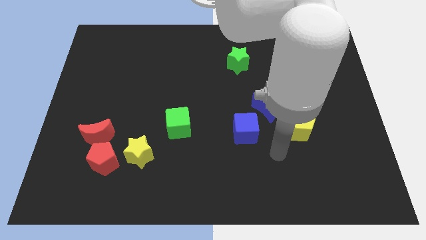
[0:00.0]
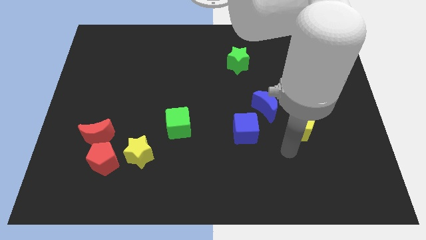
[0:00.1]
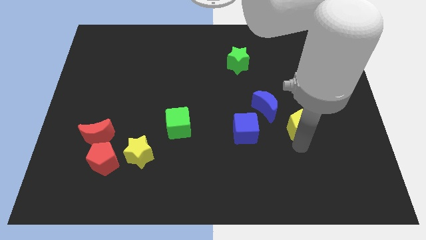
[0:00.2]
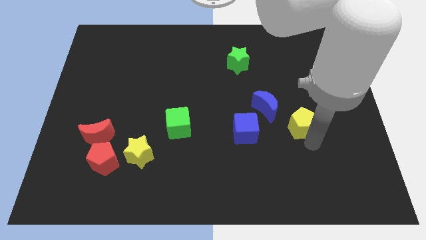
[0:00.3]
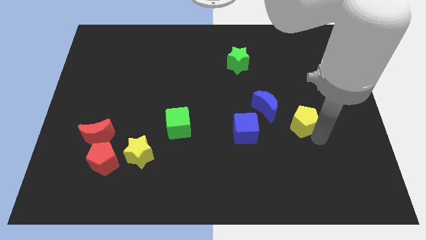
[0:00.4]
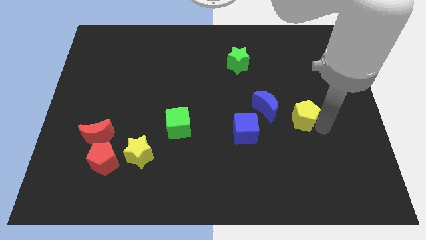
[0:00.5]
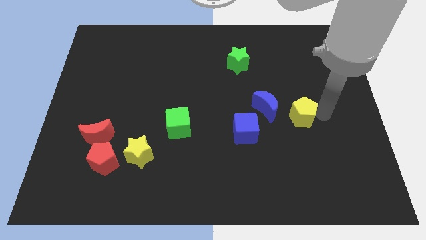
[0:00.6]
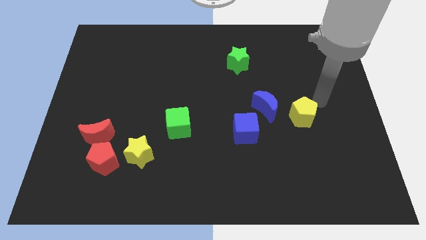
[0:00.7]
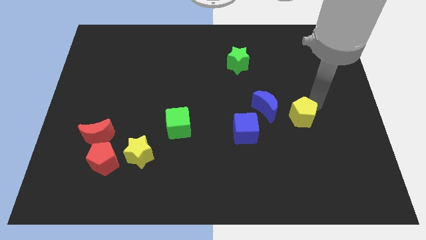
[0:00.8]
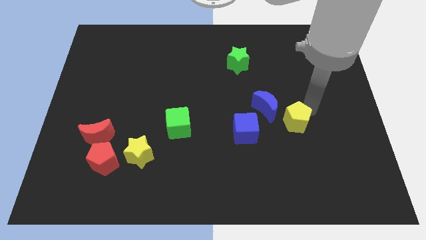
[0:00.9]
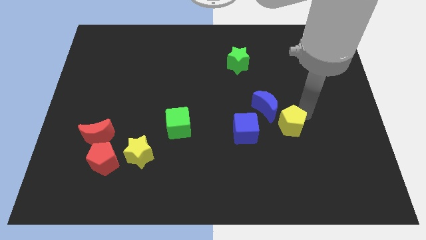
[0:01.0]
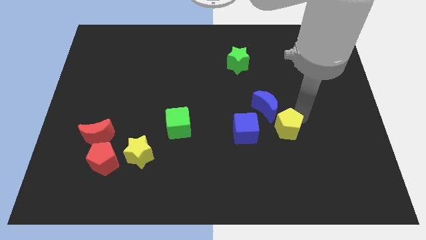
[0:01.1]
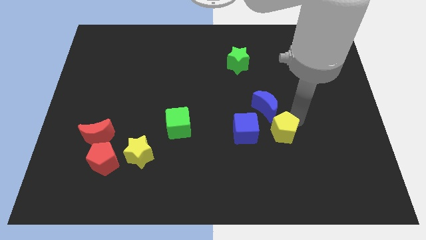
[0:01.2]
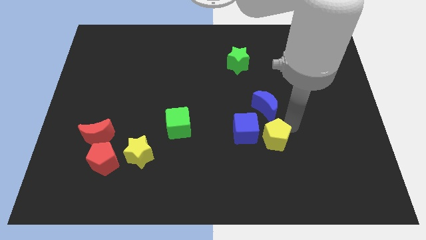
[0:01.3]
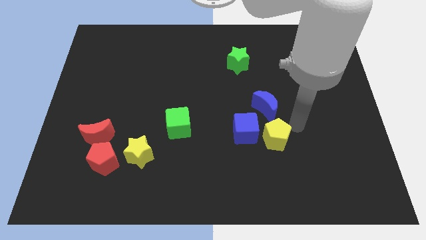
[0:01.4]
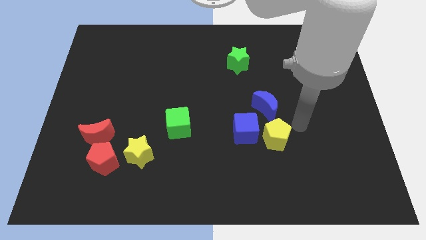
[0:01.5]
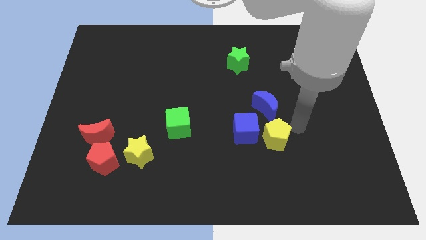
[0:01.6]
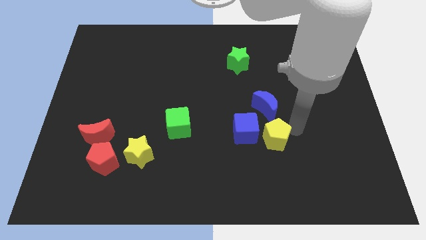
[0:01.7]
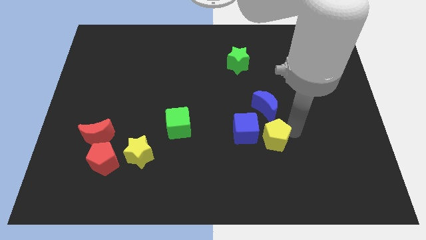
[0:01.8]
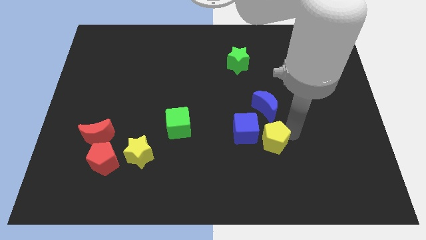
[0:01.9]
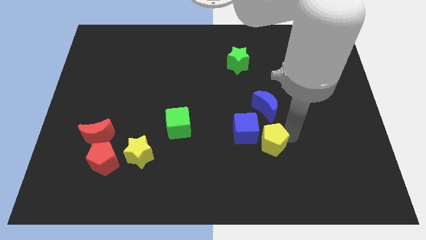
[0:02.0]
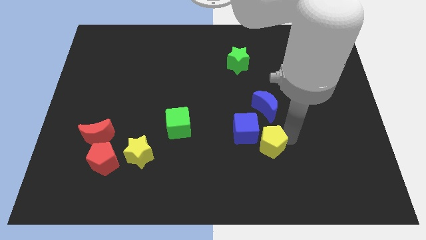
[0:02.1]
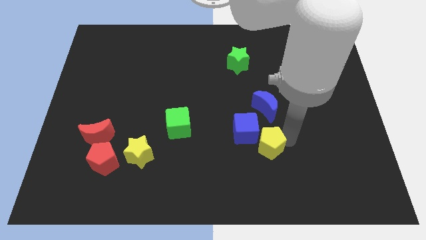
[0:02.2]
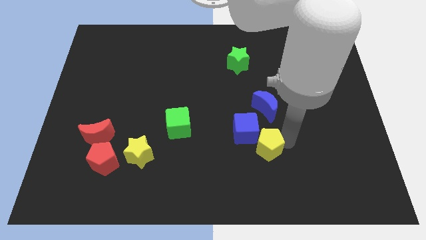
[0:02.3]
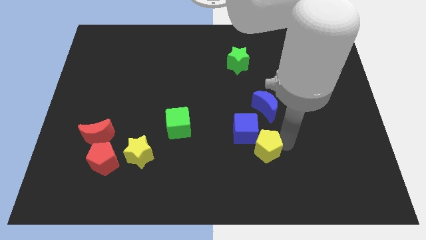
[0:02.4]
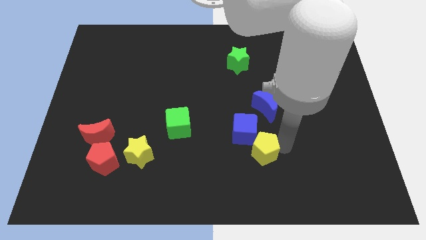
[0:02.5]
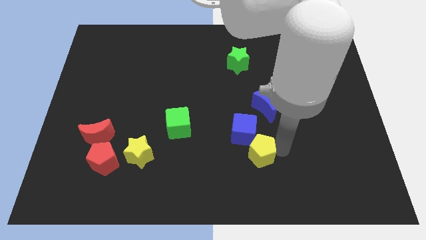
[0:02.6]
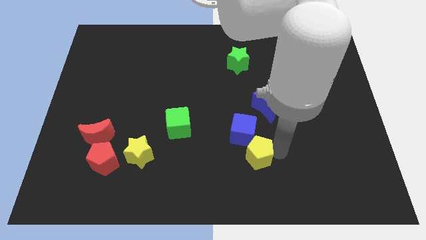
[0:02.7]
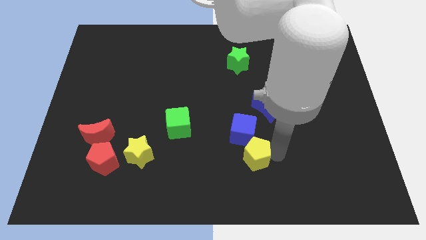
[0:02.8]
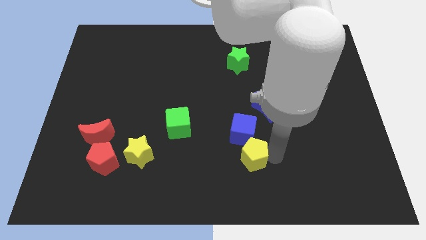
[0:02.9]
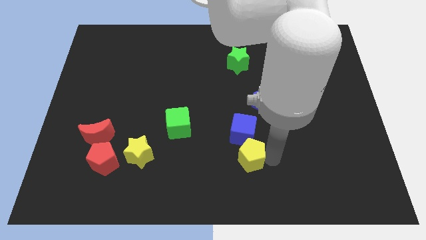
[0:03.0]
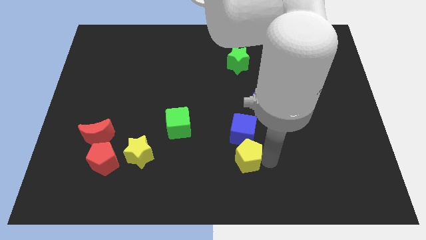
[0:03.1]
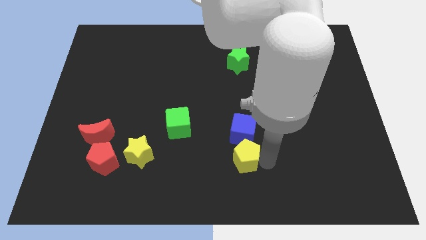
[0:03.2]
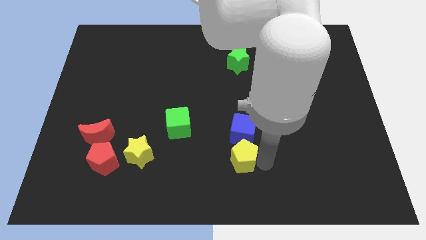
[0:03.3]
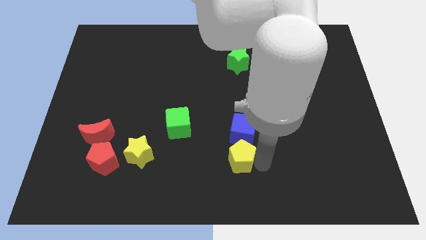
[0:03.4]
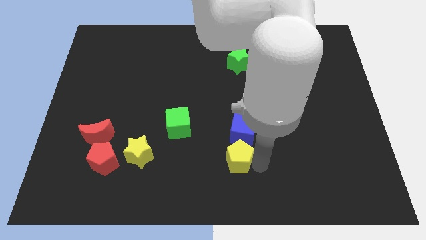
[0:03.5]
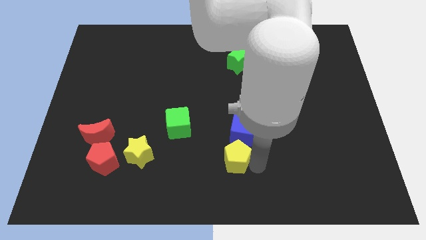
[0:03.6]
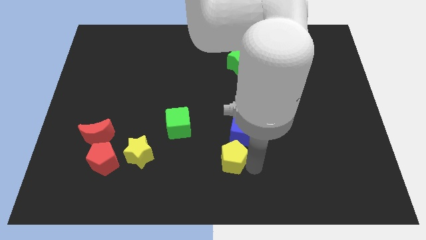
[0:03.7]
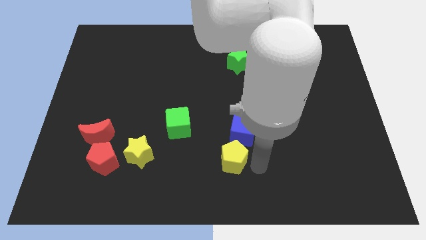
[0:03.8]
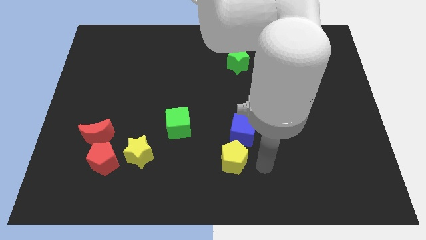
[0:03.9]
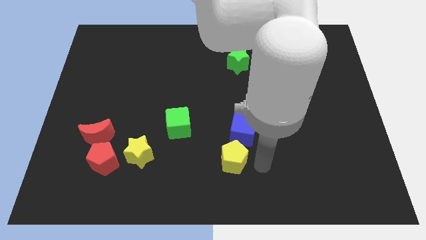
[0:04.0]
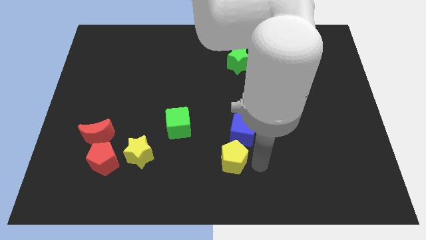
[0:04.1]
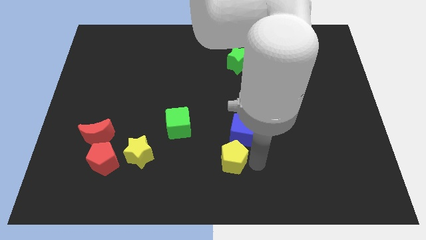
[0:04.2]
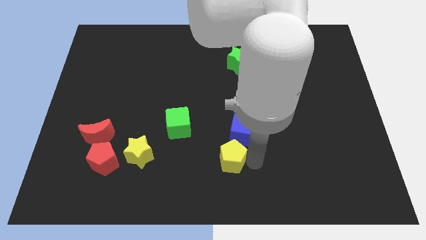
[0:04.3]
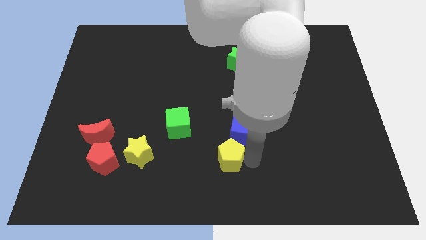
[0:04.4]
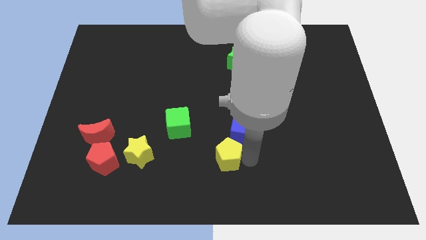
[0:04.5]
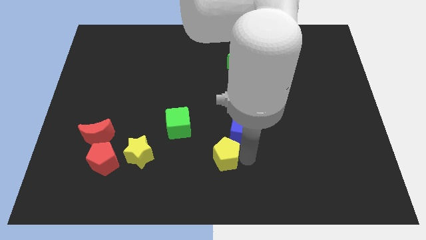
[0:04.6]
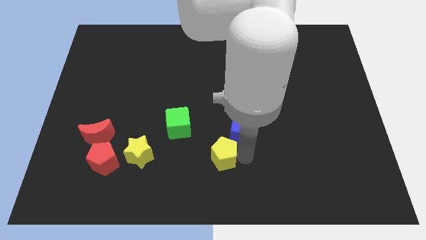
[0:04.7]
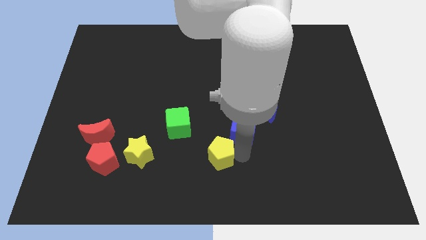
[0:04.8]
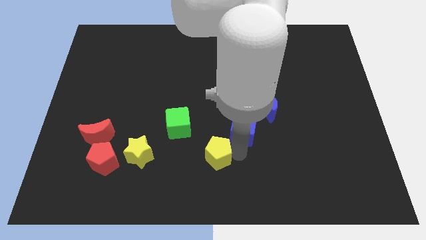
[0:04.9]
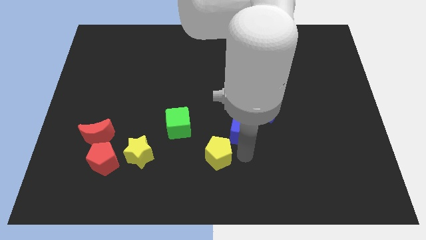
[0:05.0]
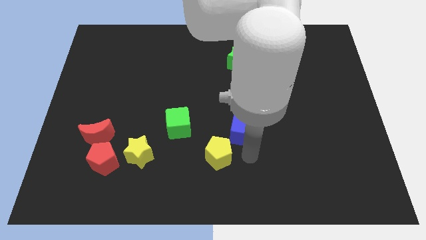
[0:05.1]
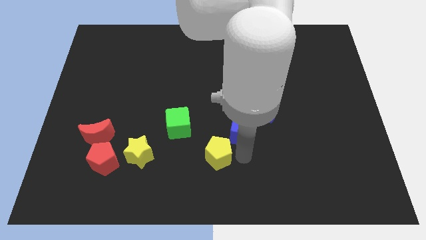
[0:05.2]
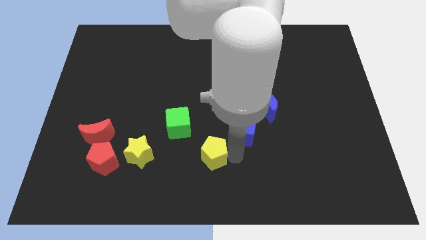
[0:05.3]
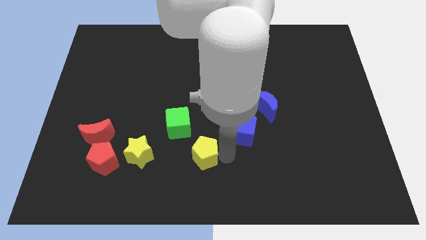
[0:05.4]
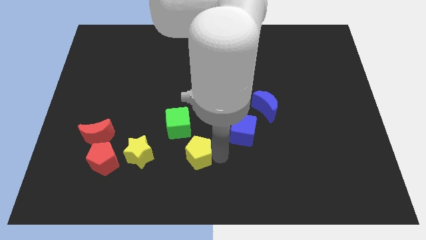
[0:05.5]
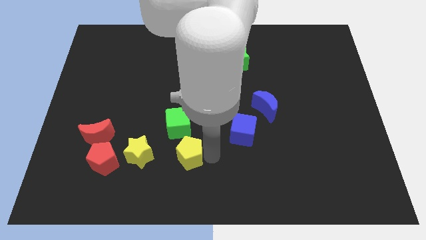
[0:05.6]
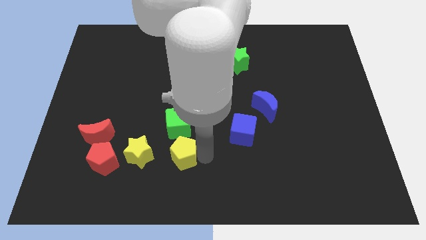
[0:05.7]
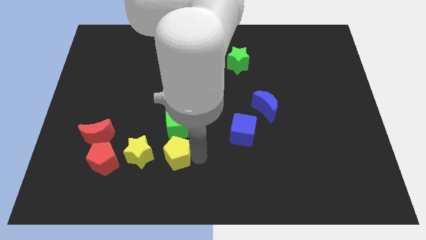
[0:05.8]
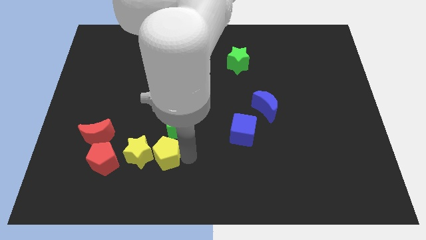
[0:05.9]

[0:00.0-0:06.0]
move the yellow pentagon towards the yellow star

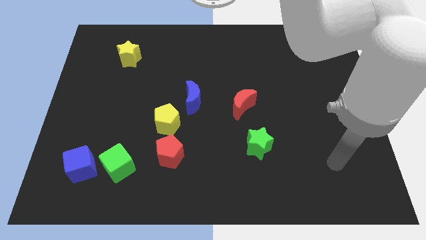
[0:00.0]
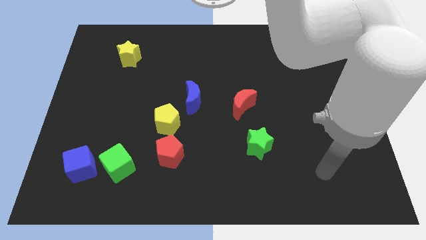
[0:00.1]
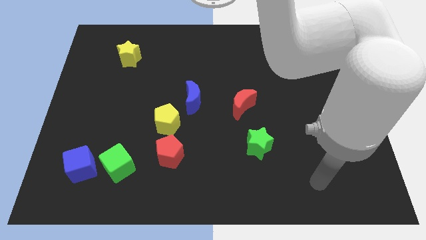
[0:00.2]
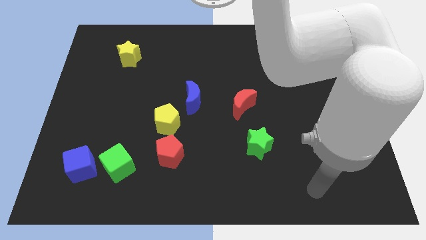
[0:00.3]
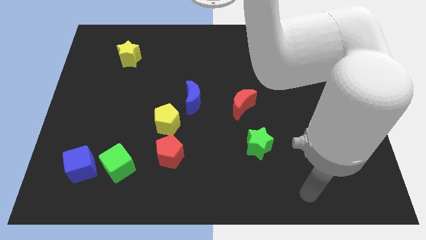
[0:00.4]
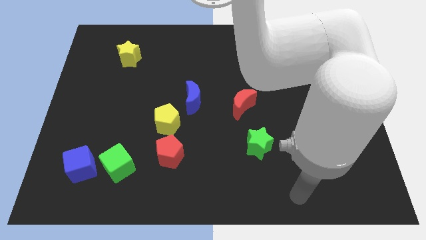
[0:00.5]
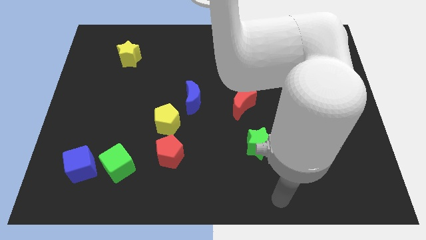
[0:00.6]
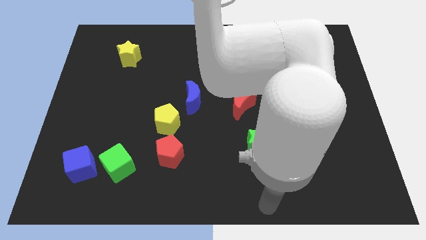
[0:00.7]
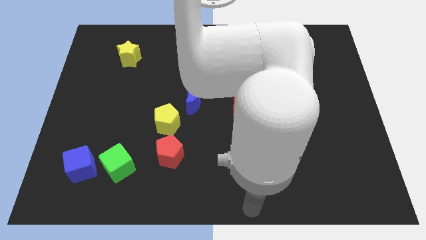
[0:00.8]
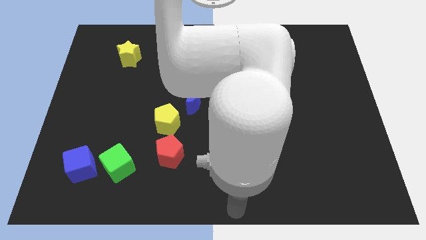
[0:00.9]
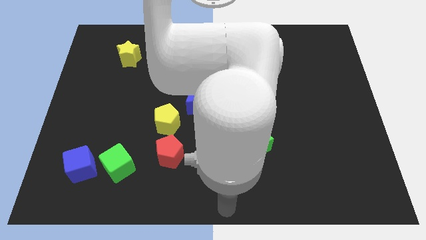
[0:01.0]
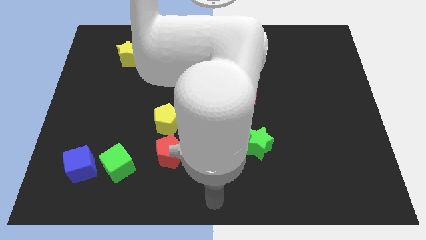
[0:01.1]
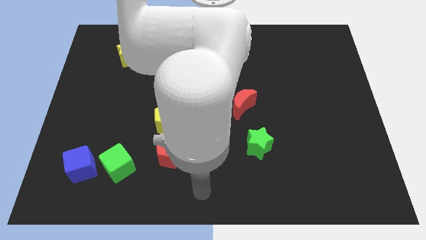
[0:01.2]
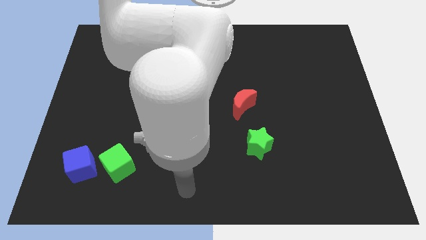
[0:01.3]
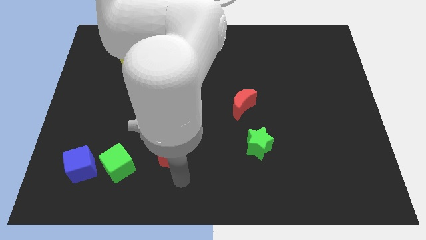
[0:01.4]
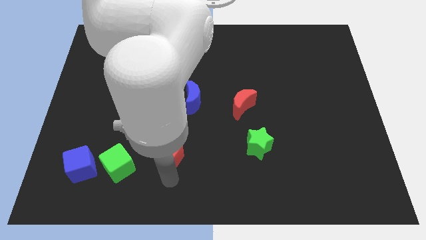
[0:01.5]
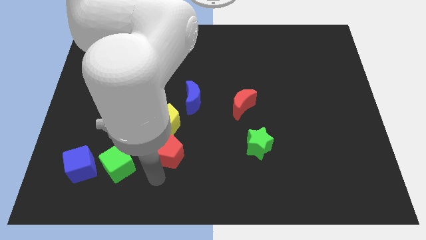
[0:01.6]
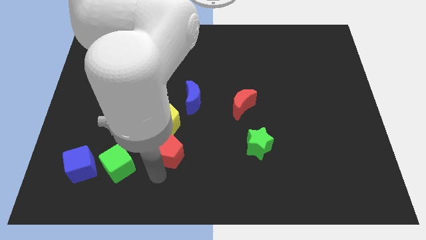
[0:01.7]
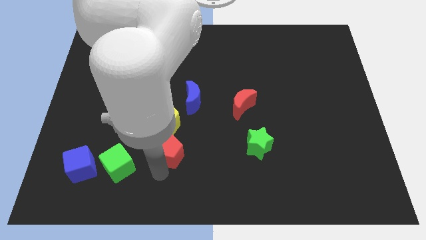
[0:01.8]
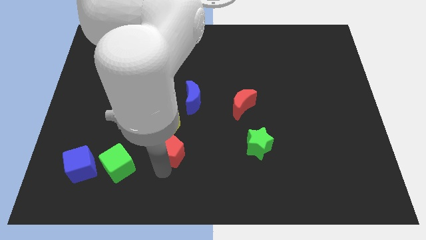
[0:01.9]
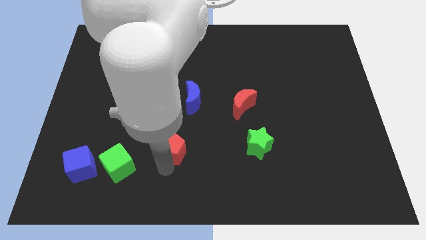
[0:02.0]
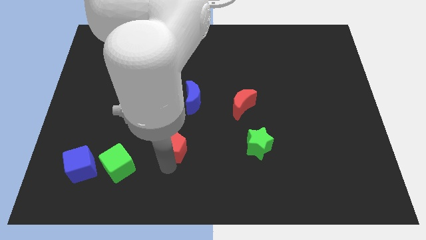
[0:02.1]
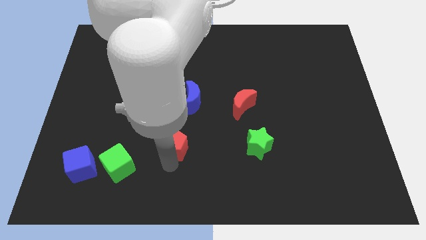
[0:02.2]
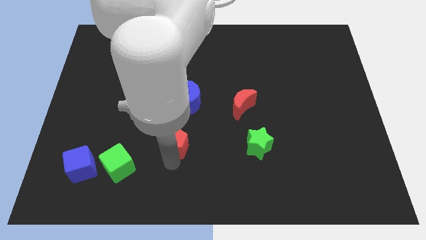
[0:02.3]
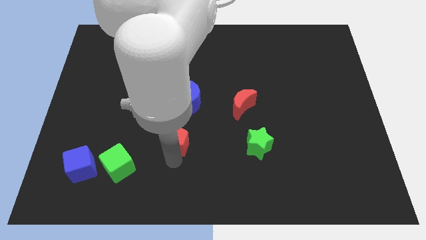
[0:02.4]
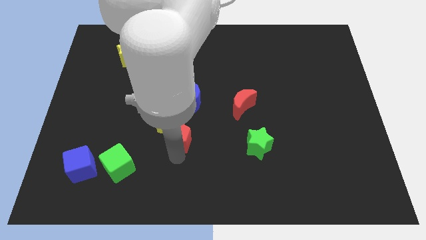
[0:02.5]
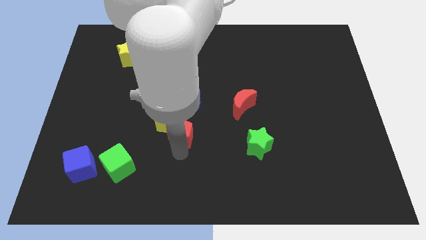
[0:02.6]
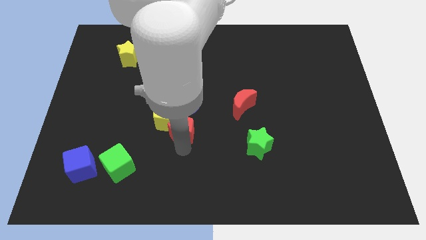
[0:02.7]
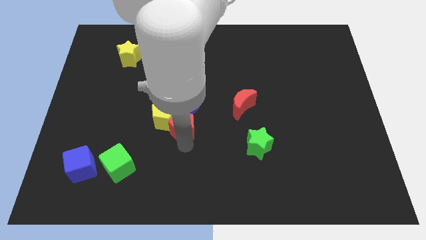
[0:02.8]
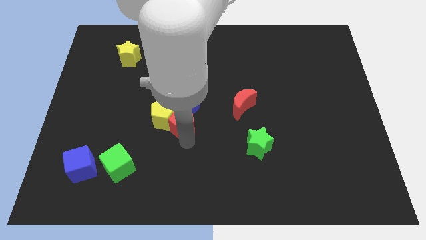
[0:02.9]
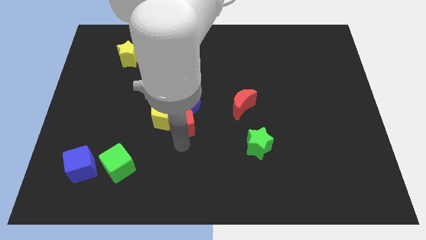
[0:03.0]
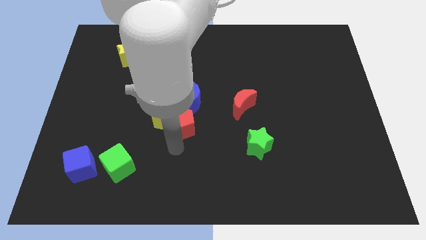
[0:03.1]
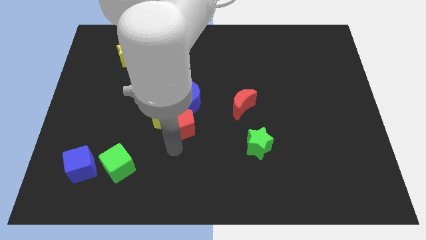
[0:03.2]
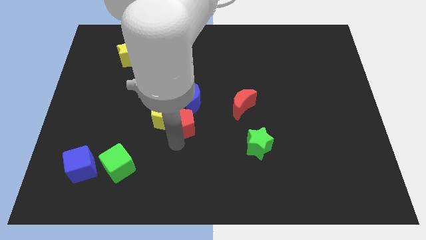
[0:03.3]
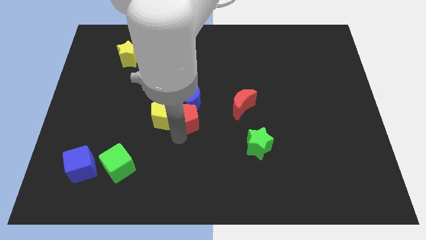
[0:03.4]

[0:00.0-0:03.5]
push the red pentagon next to the blue moon
